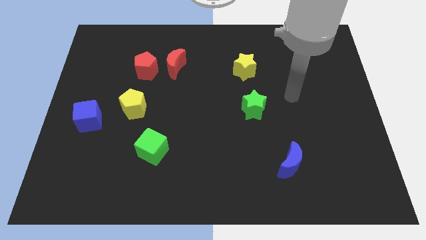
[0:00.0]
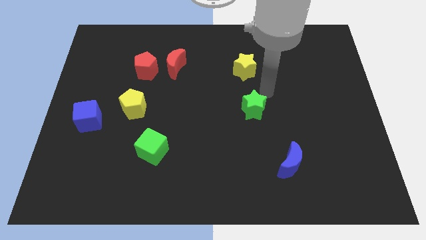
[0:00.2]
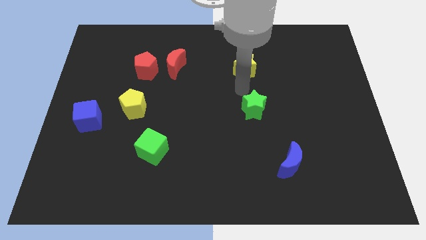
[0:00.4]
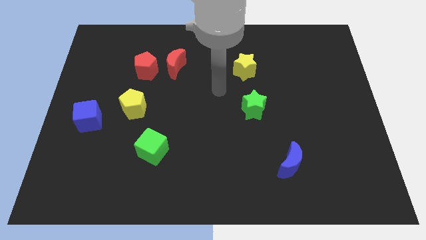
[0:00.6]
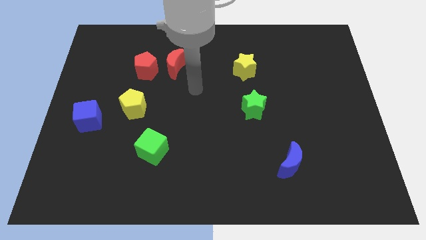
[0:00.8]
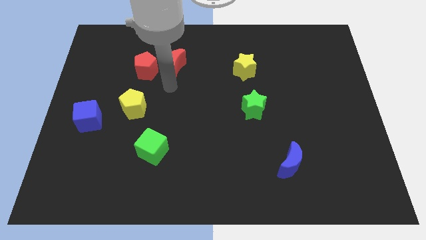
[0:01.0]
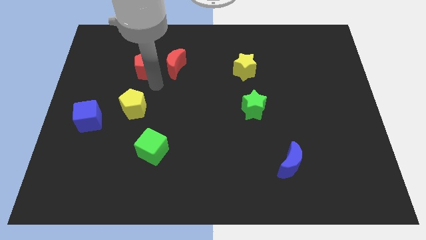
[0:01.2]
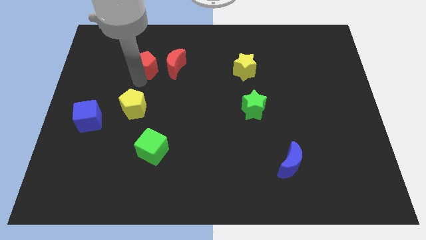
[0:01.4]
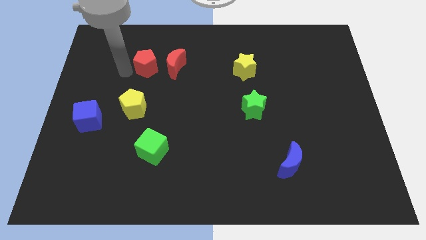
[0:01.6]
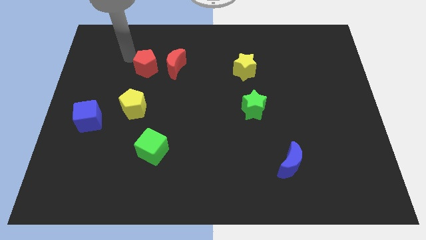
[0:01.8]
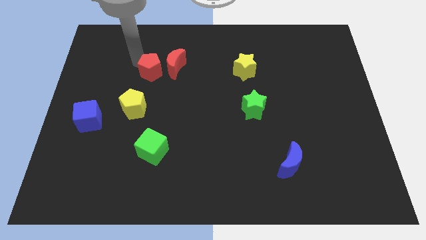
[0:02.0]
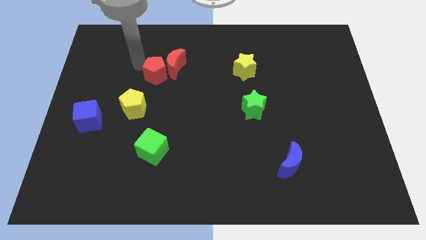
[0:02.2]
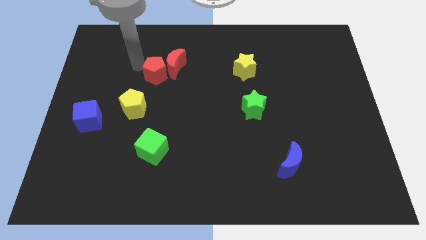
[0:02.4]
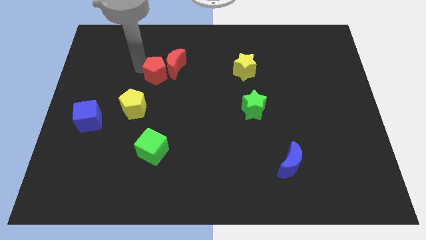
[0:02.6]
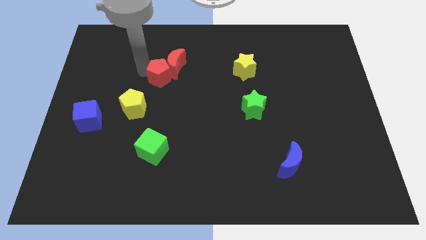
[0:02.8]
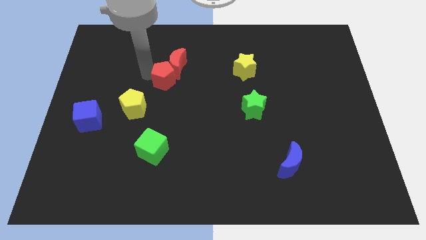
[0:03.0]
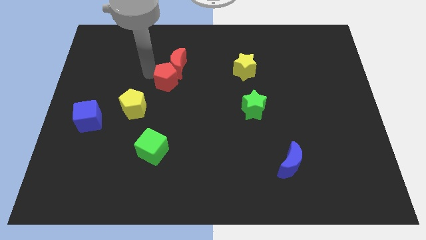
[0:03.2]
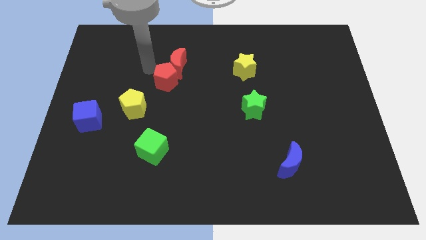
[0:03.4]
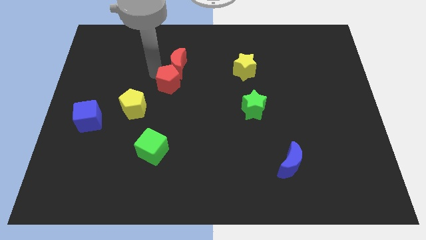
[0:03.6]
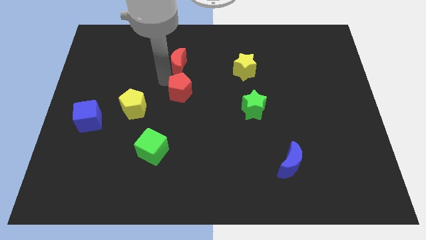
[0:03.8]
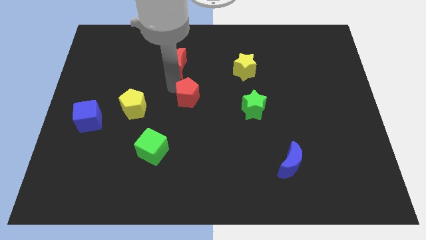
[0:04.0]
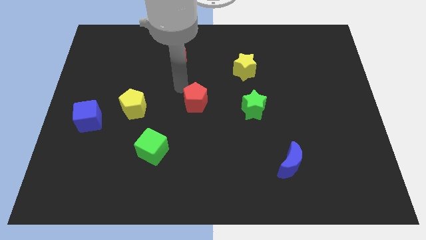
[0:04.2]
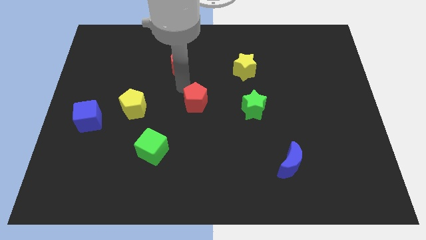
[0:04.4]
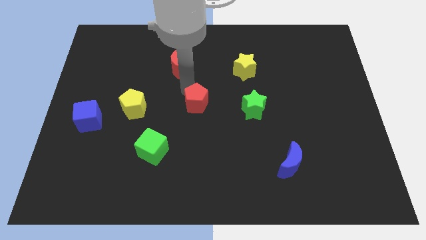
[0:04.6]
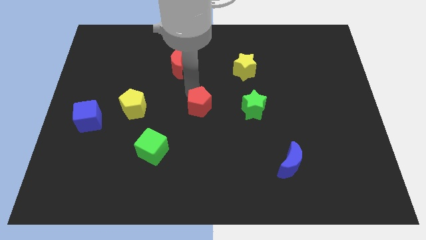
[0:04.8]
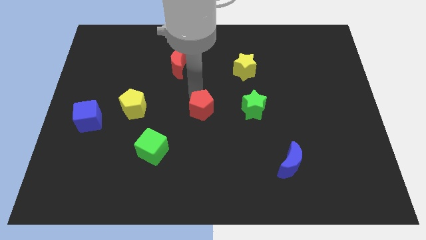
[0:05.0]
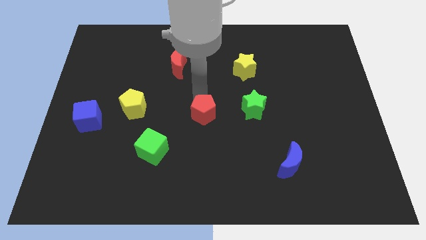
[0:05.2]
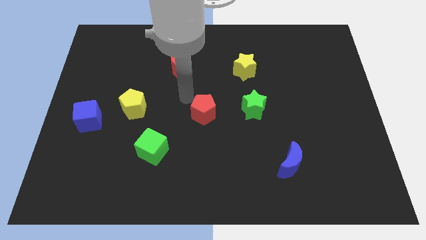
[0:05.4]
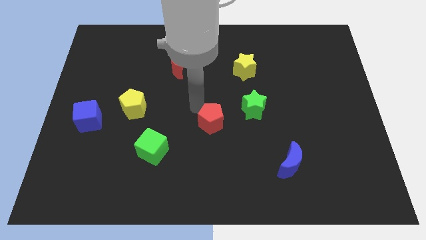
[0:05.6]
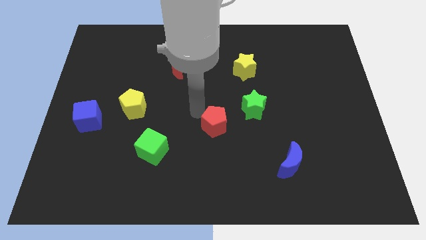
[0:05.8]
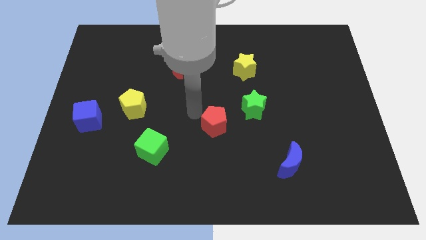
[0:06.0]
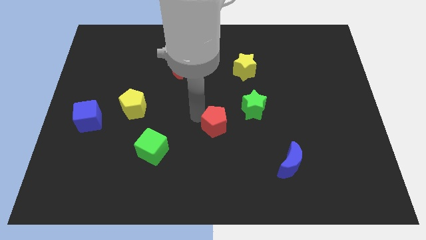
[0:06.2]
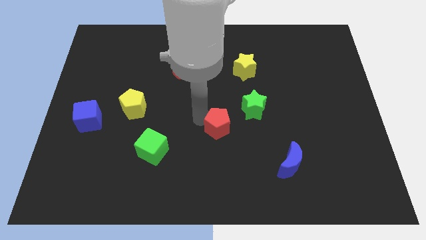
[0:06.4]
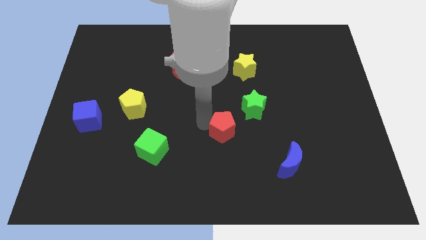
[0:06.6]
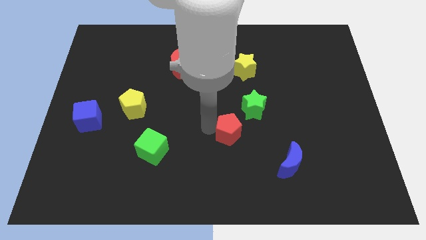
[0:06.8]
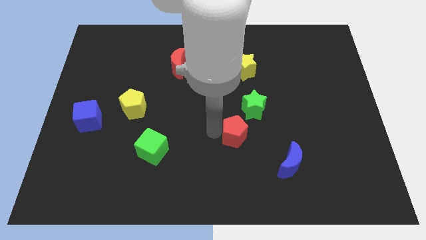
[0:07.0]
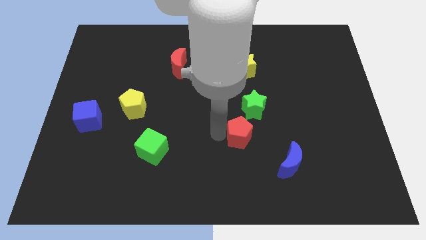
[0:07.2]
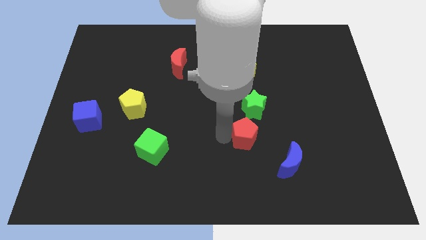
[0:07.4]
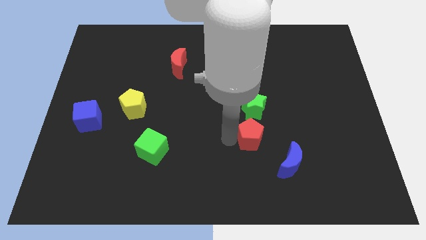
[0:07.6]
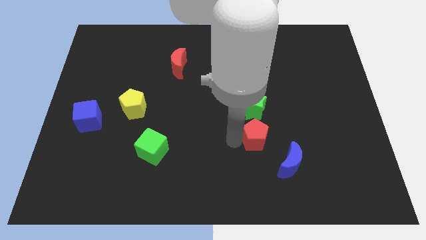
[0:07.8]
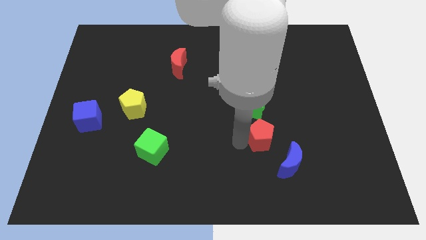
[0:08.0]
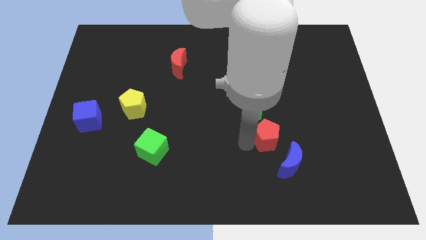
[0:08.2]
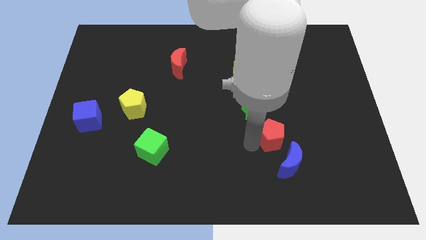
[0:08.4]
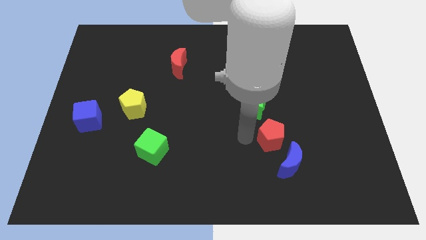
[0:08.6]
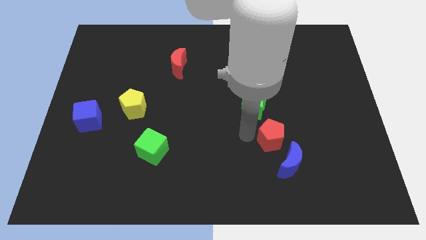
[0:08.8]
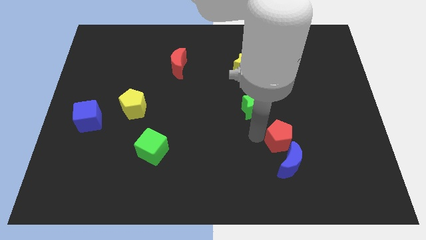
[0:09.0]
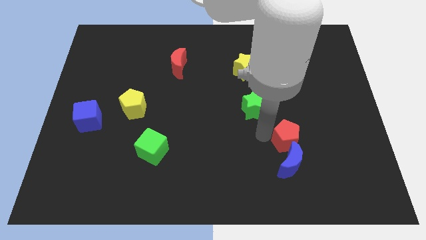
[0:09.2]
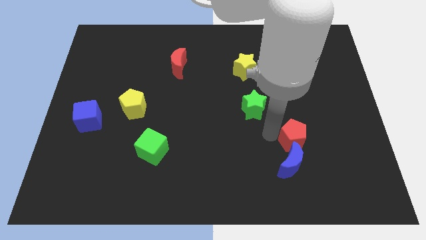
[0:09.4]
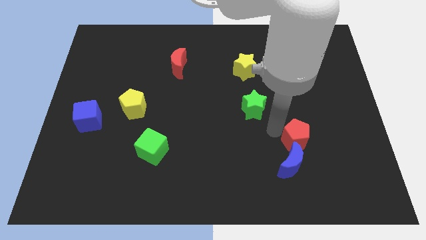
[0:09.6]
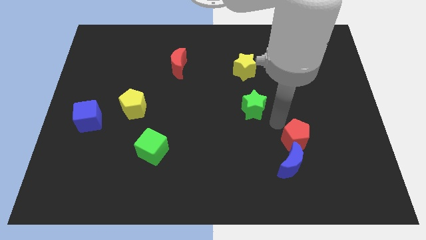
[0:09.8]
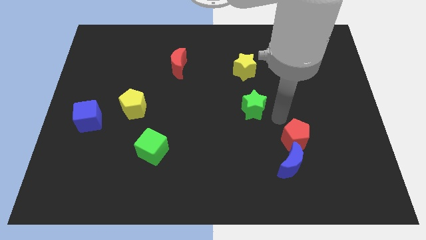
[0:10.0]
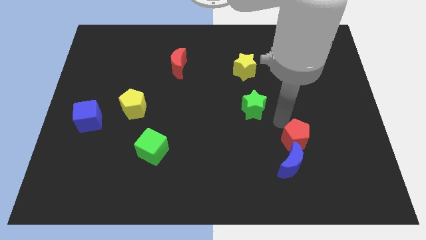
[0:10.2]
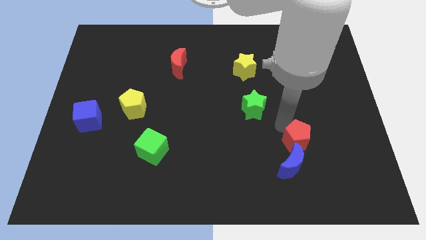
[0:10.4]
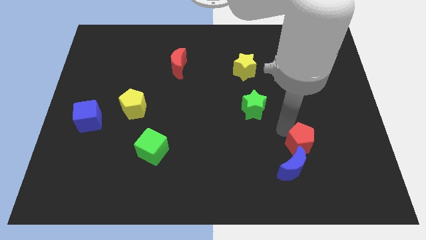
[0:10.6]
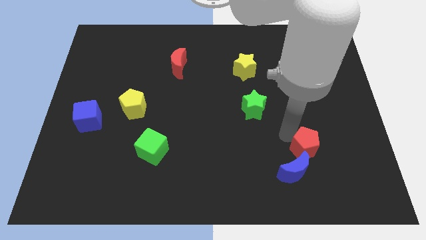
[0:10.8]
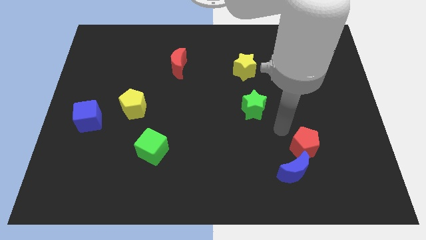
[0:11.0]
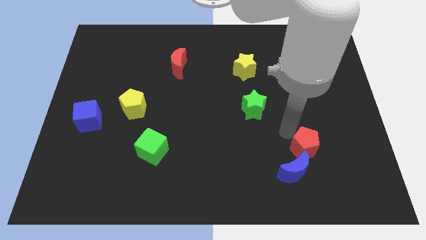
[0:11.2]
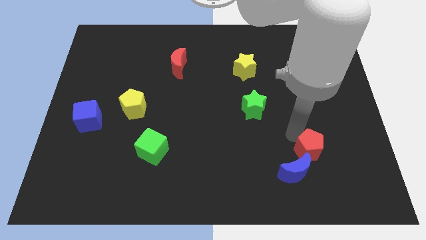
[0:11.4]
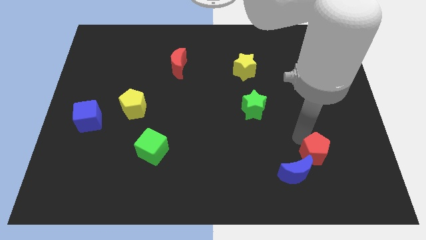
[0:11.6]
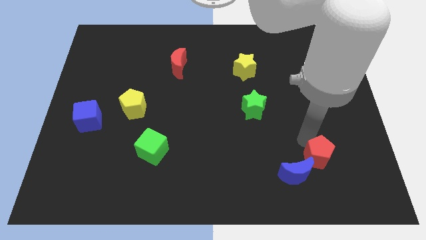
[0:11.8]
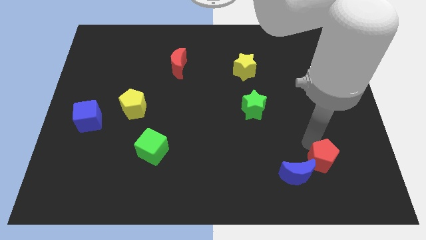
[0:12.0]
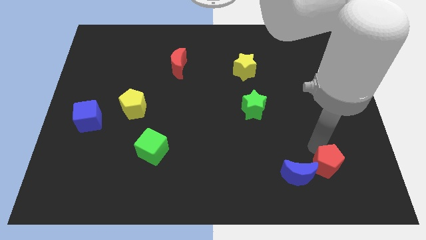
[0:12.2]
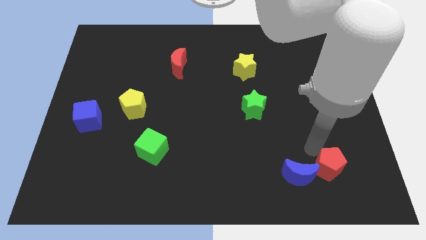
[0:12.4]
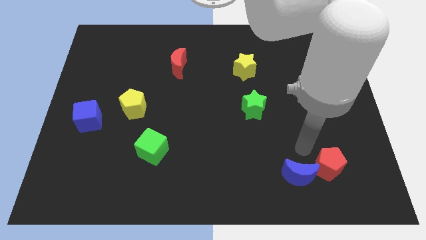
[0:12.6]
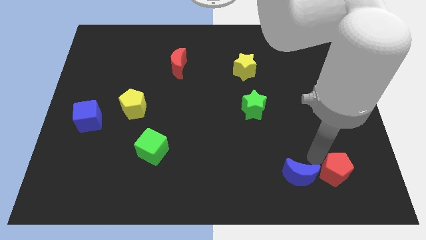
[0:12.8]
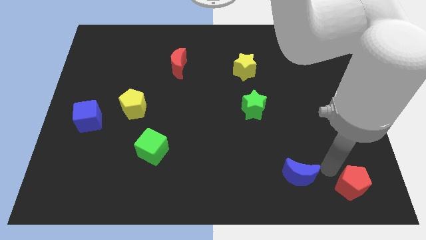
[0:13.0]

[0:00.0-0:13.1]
put the red pentagon to the bottom right corner
